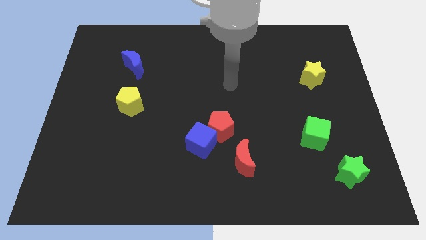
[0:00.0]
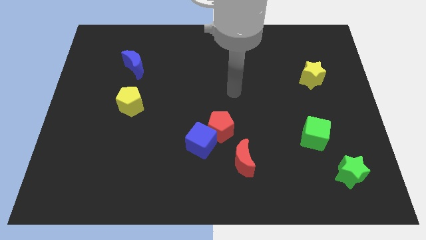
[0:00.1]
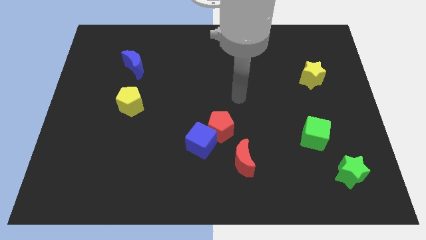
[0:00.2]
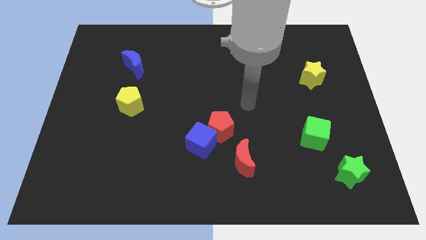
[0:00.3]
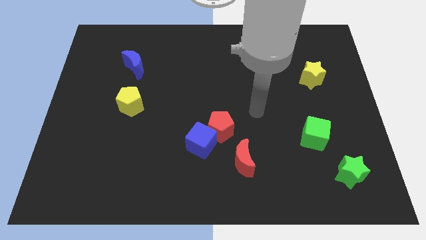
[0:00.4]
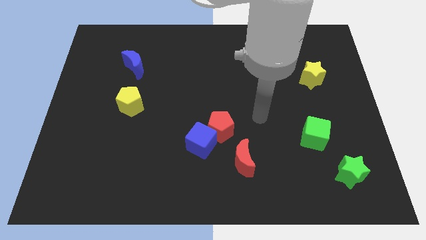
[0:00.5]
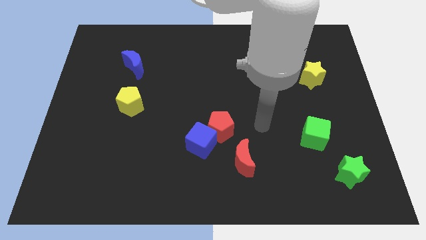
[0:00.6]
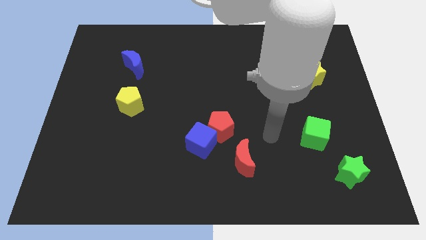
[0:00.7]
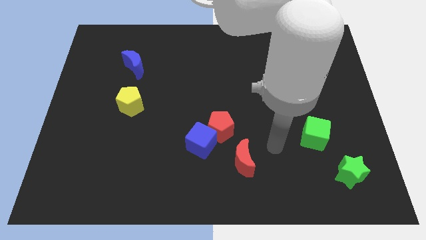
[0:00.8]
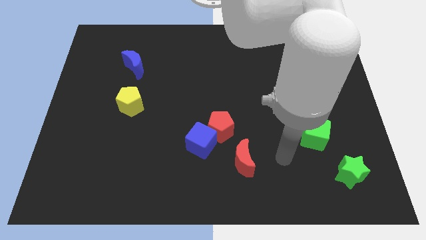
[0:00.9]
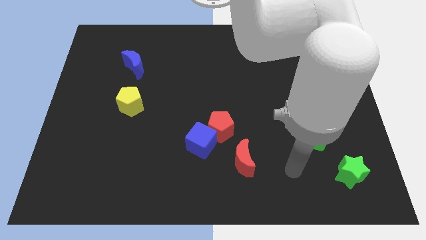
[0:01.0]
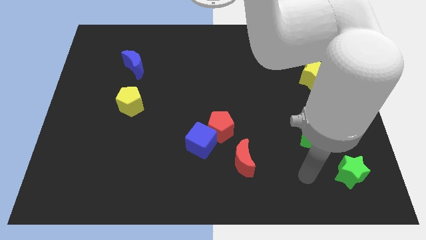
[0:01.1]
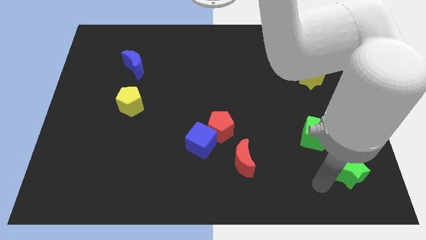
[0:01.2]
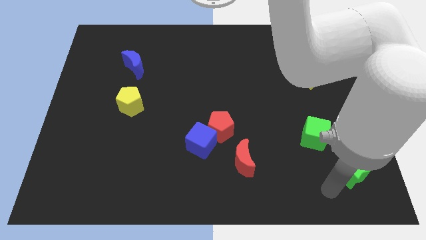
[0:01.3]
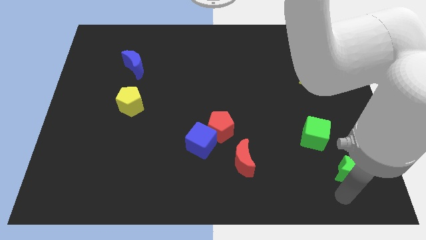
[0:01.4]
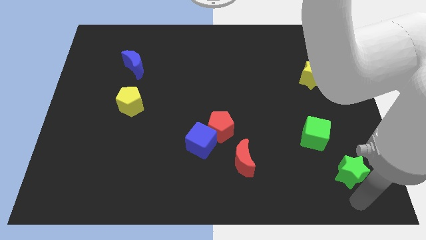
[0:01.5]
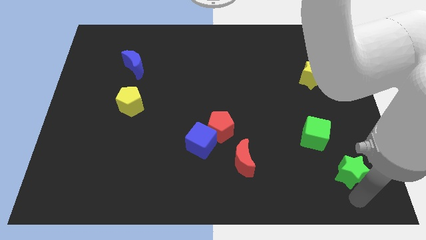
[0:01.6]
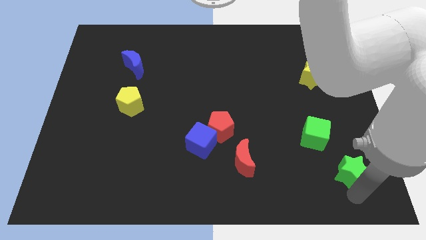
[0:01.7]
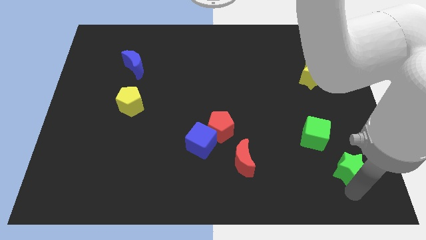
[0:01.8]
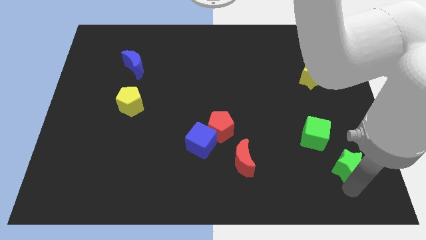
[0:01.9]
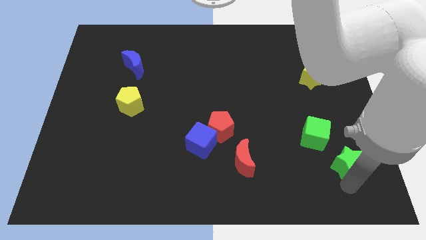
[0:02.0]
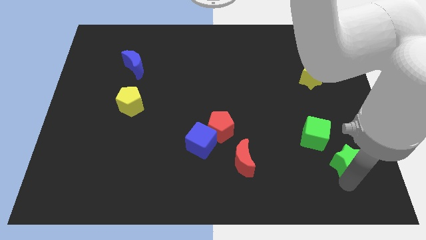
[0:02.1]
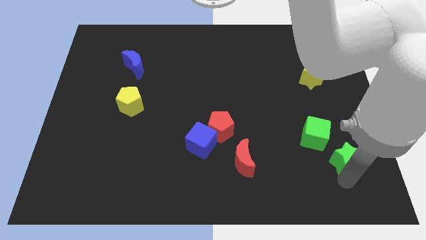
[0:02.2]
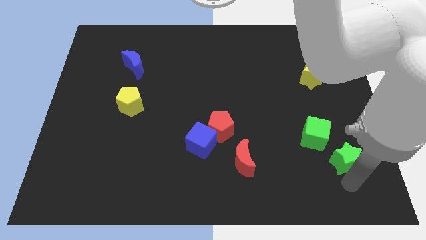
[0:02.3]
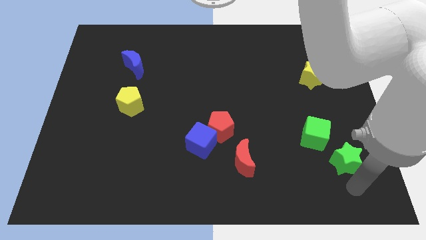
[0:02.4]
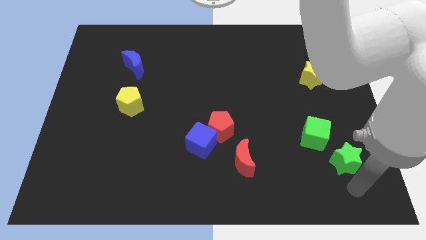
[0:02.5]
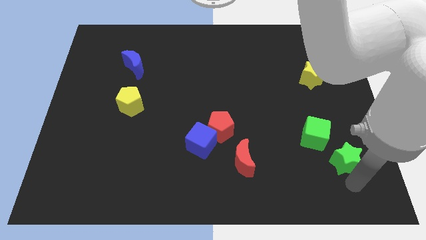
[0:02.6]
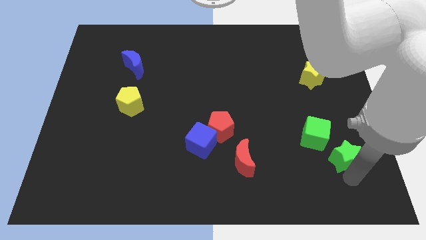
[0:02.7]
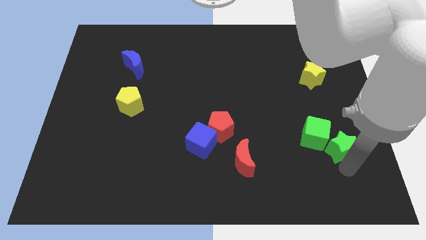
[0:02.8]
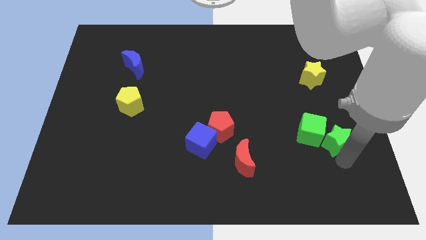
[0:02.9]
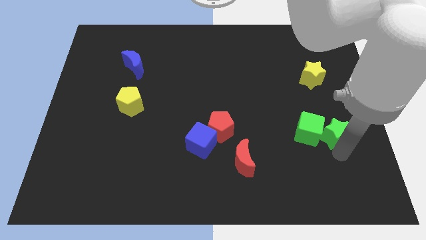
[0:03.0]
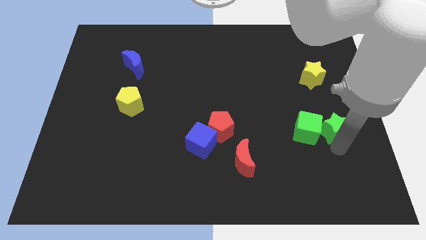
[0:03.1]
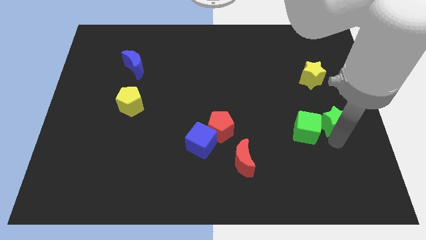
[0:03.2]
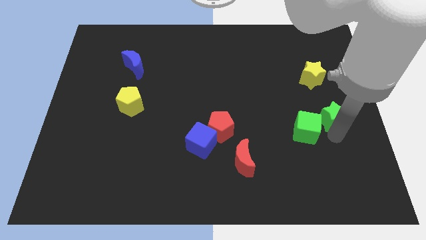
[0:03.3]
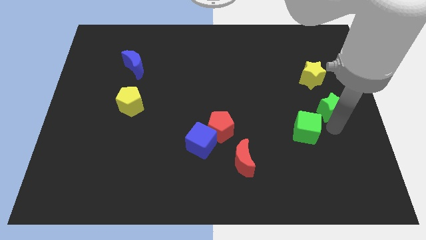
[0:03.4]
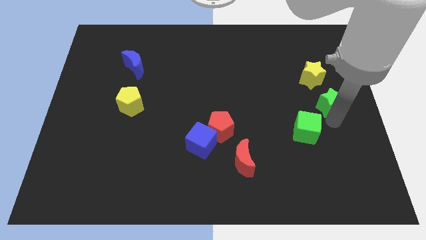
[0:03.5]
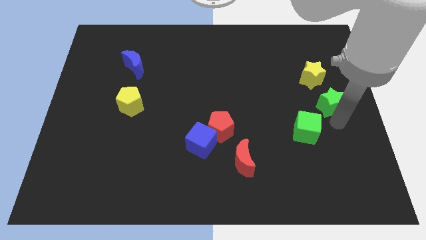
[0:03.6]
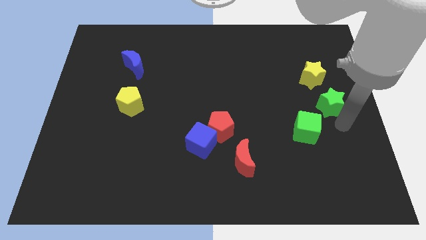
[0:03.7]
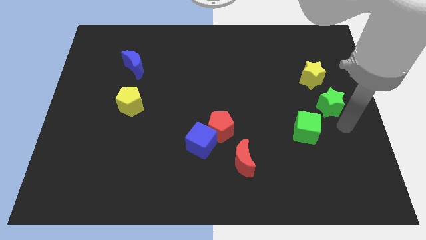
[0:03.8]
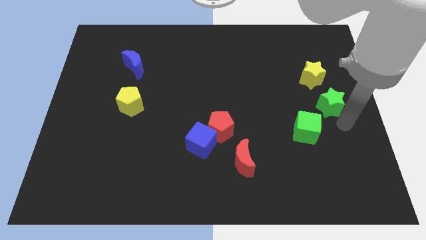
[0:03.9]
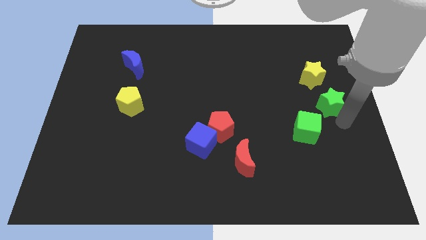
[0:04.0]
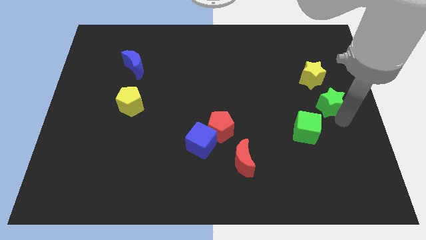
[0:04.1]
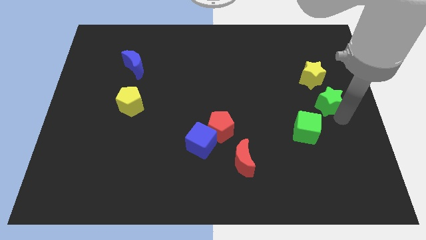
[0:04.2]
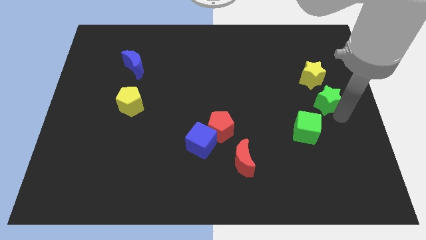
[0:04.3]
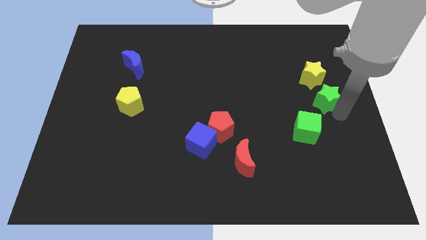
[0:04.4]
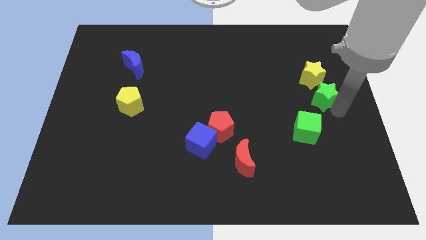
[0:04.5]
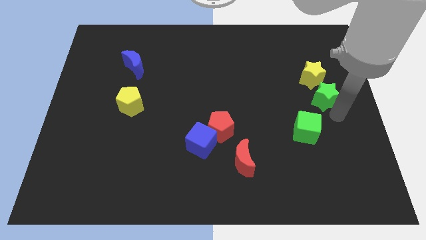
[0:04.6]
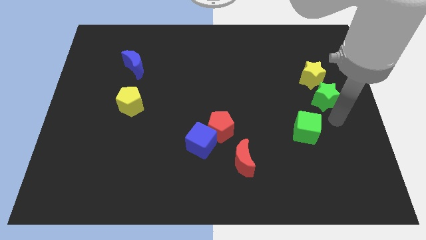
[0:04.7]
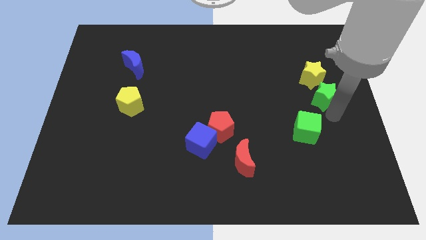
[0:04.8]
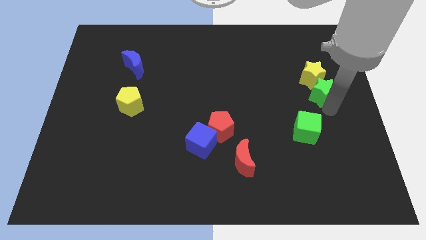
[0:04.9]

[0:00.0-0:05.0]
push the green star to the yellow star

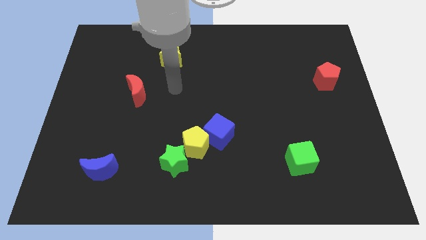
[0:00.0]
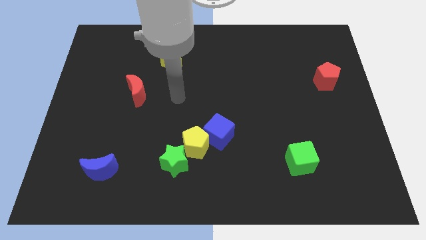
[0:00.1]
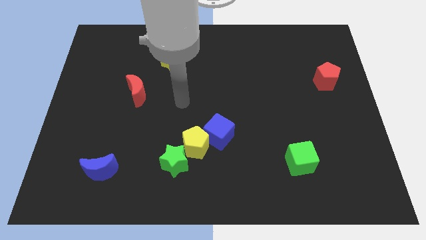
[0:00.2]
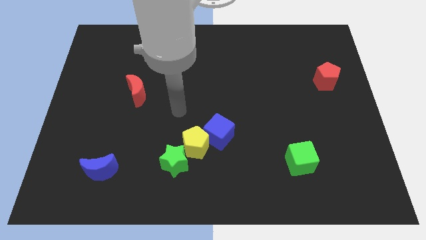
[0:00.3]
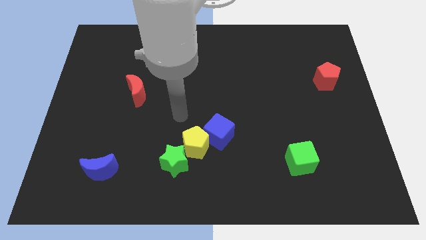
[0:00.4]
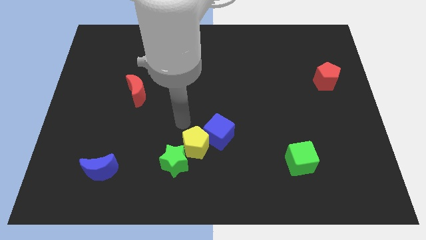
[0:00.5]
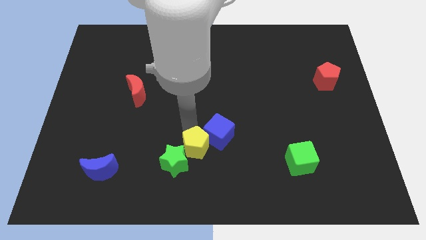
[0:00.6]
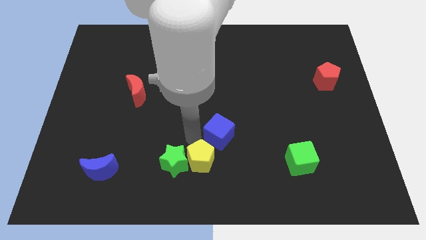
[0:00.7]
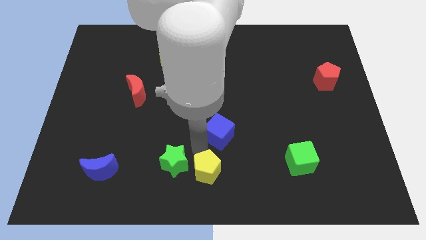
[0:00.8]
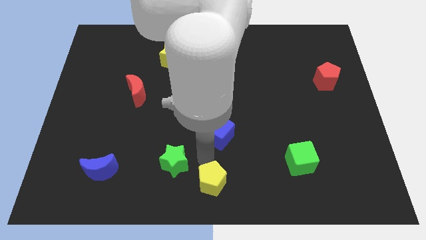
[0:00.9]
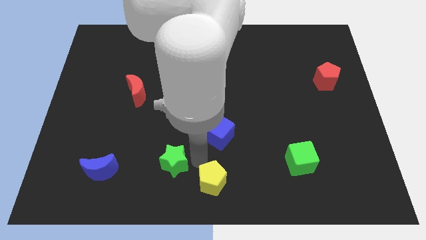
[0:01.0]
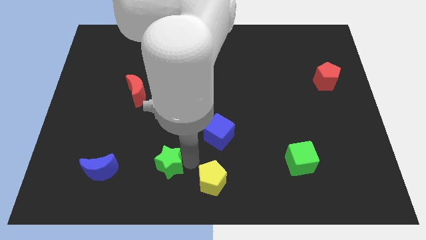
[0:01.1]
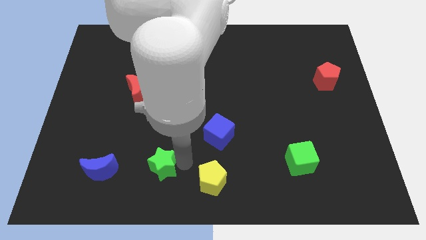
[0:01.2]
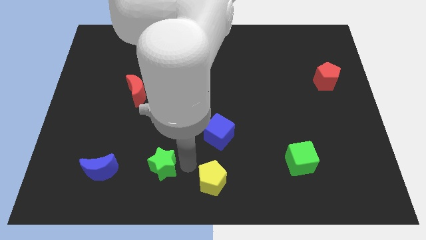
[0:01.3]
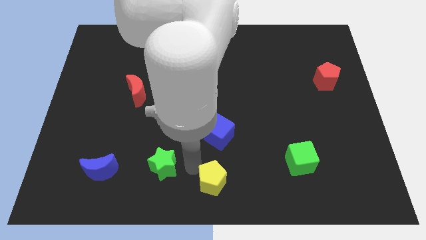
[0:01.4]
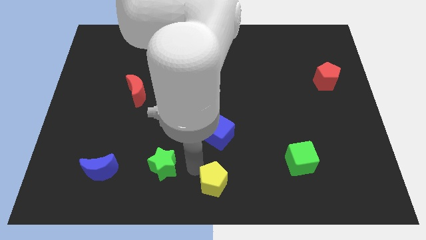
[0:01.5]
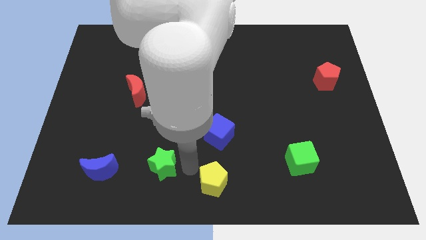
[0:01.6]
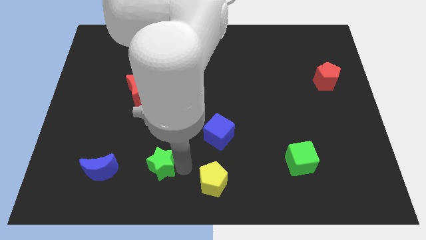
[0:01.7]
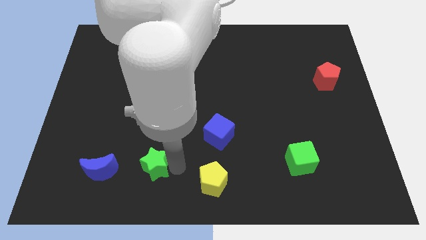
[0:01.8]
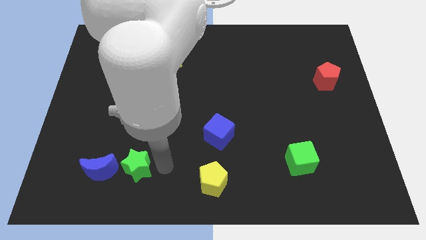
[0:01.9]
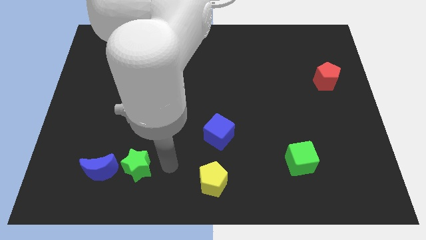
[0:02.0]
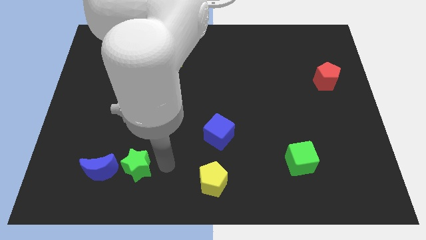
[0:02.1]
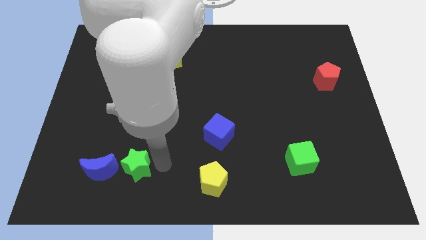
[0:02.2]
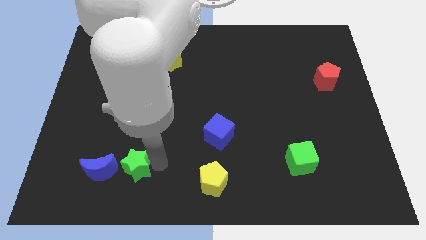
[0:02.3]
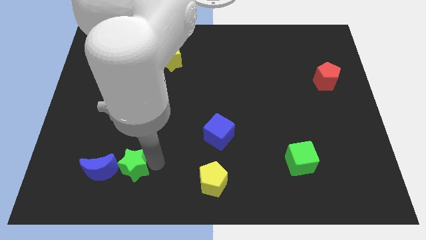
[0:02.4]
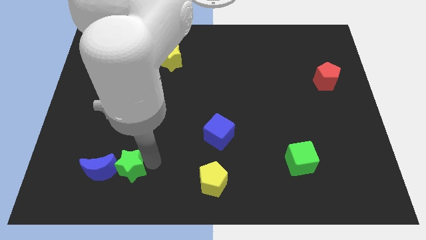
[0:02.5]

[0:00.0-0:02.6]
slide the green star to the blue moon
